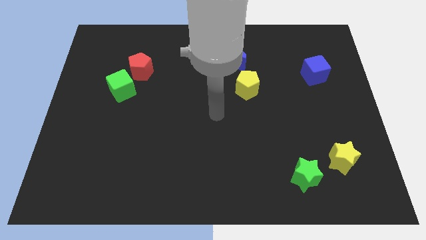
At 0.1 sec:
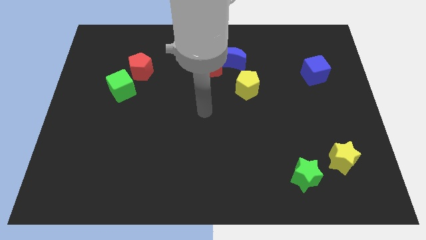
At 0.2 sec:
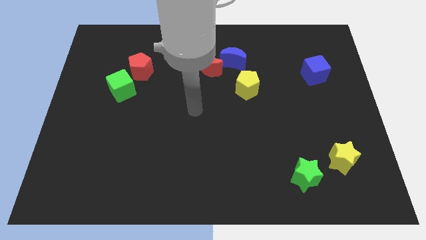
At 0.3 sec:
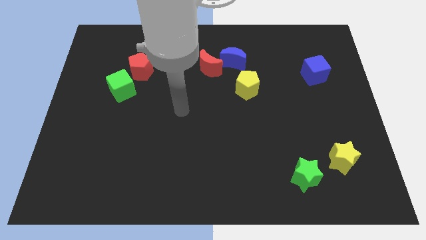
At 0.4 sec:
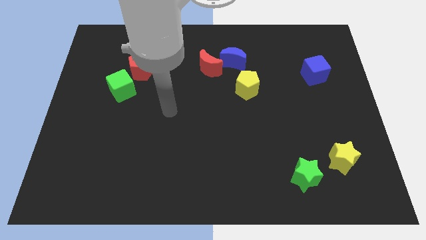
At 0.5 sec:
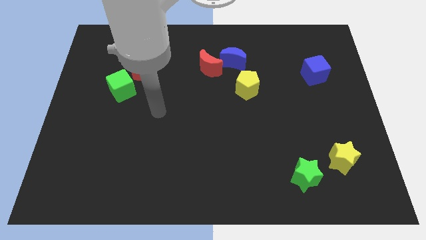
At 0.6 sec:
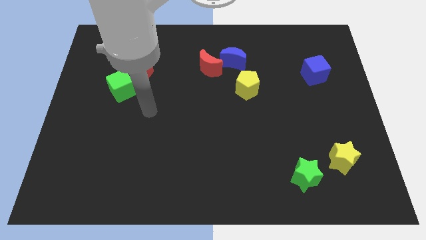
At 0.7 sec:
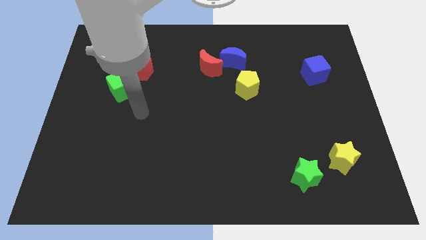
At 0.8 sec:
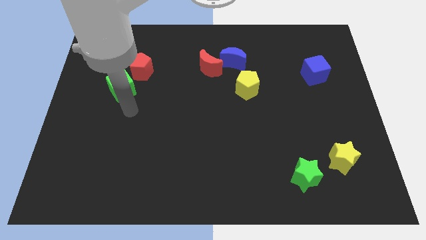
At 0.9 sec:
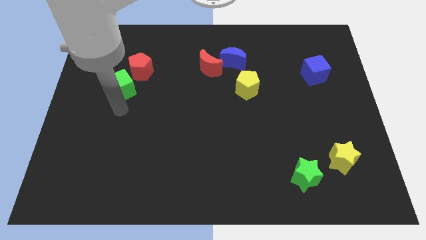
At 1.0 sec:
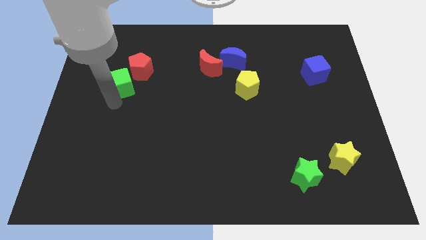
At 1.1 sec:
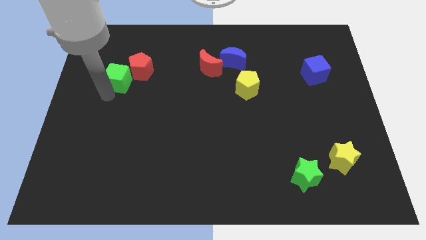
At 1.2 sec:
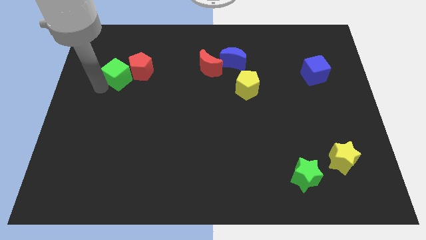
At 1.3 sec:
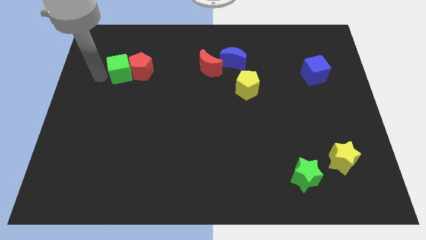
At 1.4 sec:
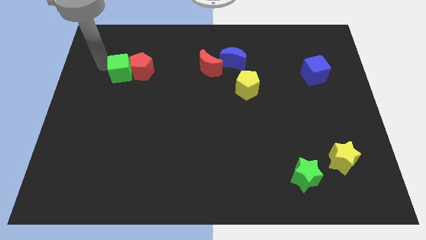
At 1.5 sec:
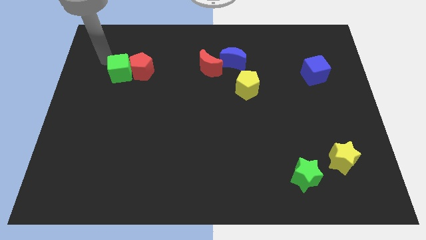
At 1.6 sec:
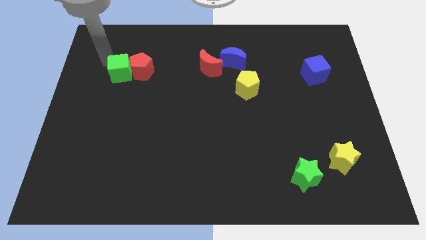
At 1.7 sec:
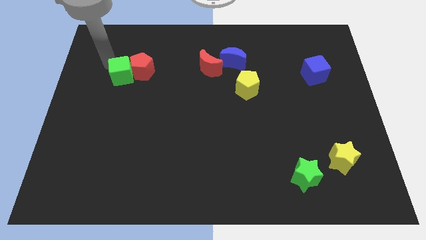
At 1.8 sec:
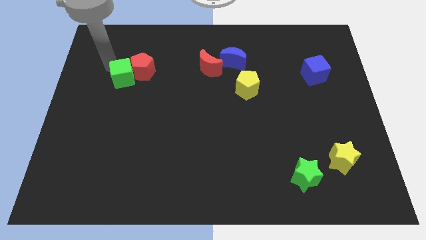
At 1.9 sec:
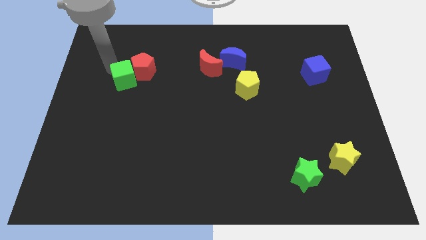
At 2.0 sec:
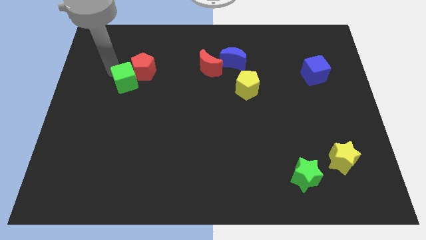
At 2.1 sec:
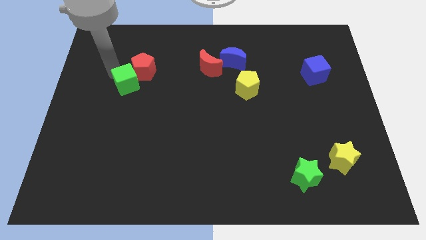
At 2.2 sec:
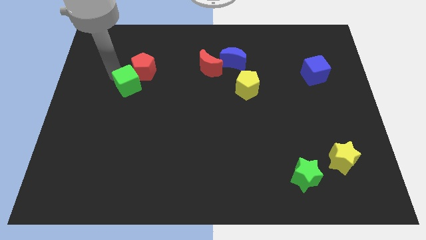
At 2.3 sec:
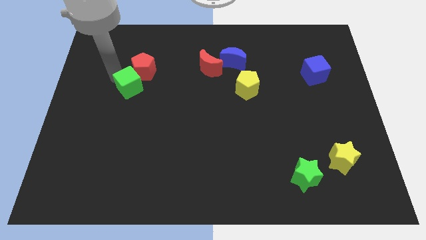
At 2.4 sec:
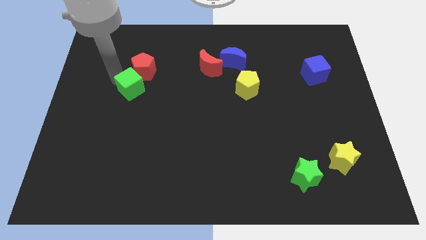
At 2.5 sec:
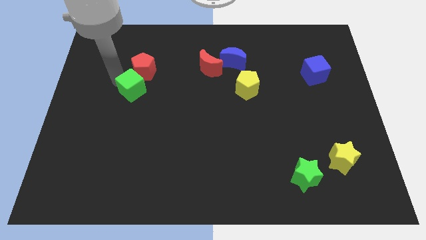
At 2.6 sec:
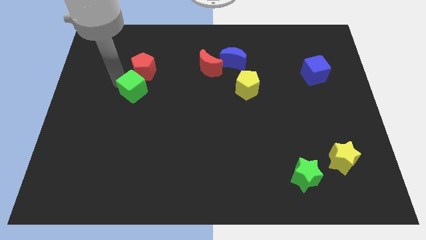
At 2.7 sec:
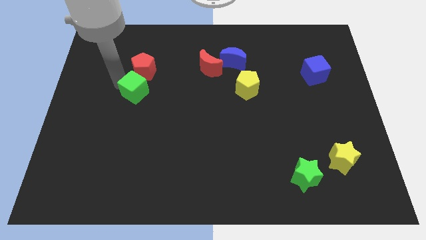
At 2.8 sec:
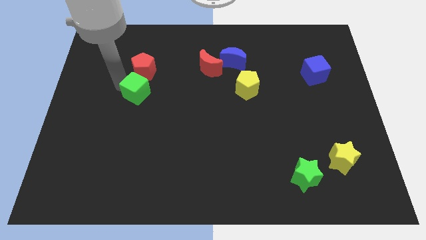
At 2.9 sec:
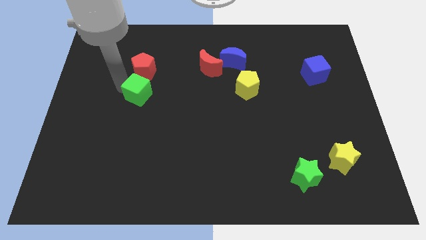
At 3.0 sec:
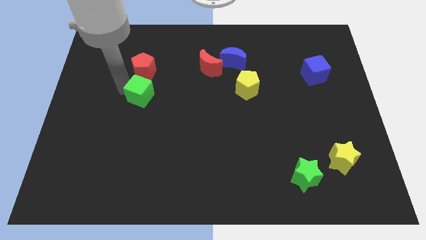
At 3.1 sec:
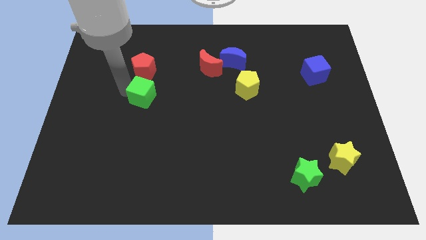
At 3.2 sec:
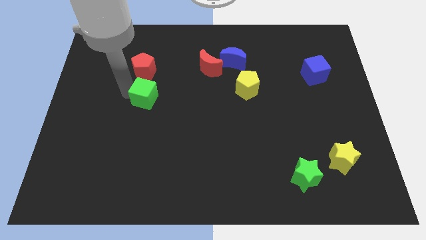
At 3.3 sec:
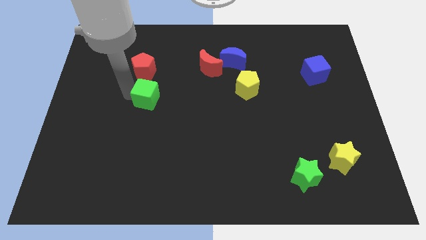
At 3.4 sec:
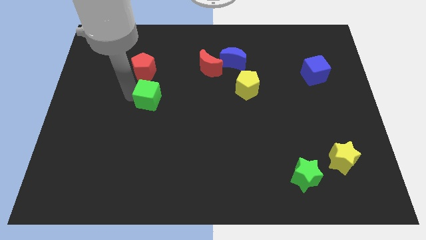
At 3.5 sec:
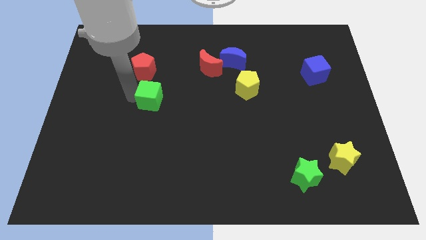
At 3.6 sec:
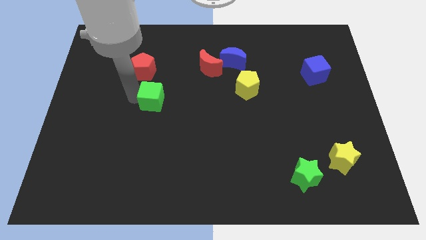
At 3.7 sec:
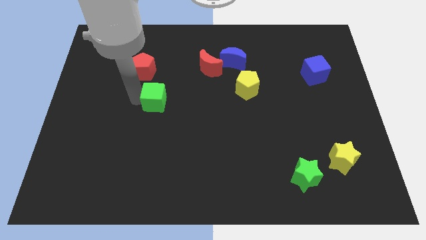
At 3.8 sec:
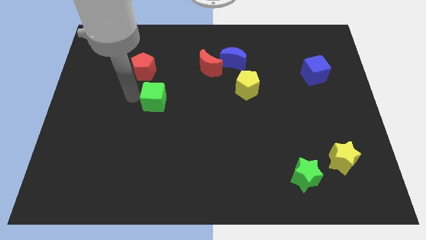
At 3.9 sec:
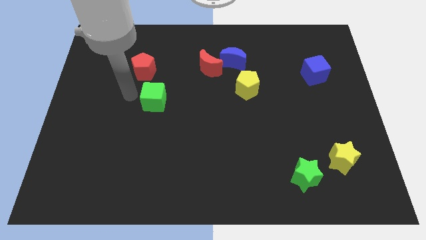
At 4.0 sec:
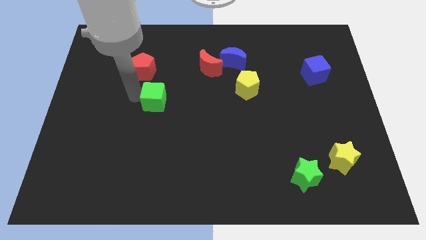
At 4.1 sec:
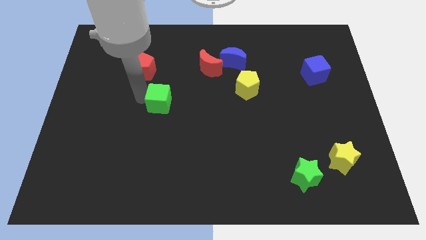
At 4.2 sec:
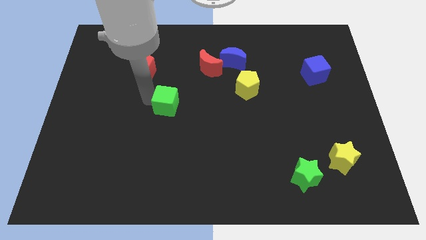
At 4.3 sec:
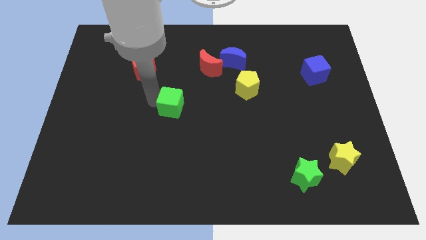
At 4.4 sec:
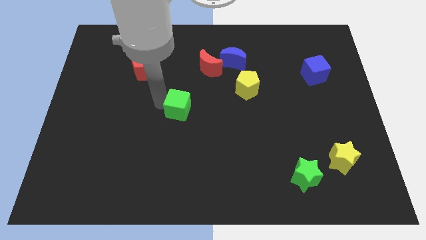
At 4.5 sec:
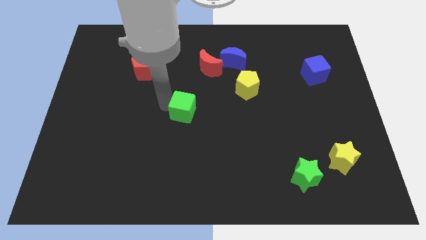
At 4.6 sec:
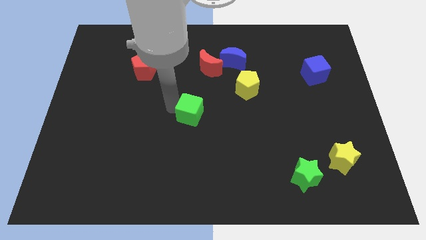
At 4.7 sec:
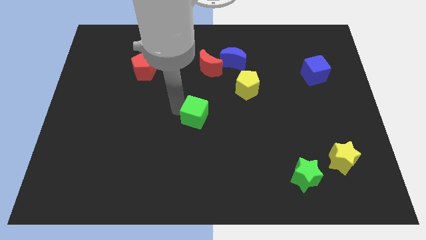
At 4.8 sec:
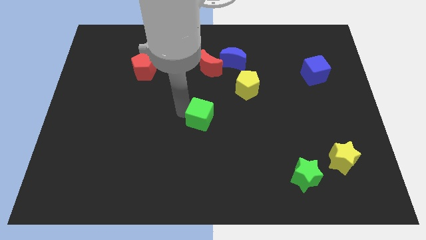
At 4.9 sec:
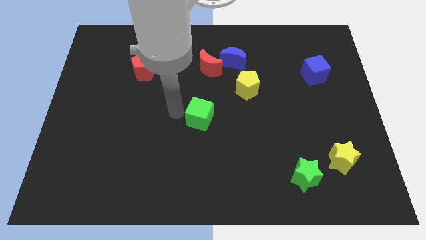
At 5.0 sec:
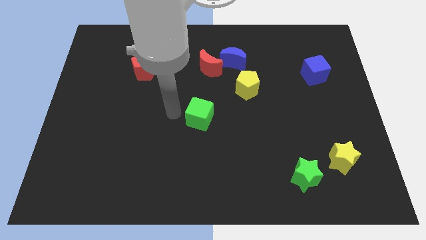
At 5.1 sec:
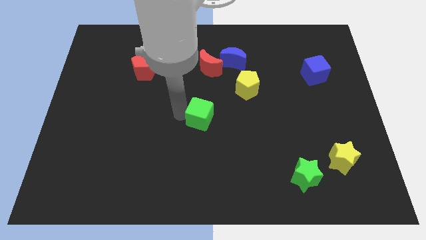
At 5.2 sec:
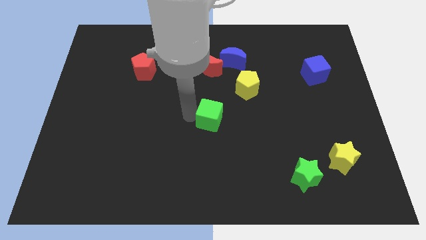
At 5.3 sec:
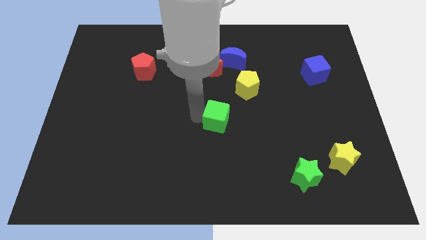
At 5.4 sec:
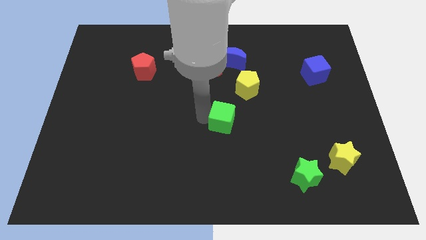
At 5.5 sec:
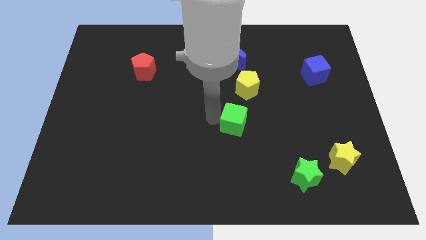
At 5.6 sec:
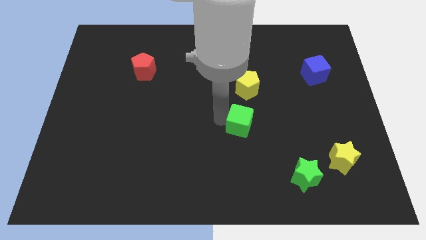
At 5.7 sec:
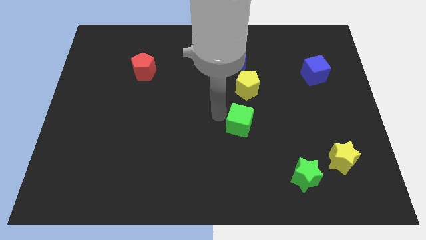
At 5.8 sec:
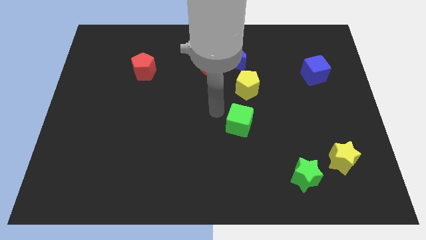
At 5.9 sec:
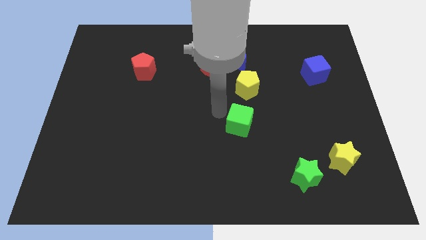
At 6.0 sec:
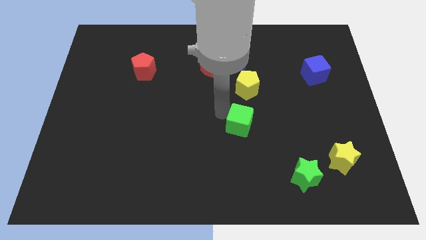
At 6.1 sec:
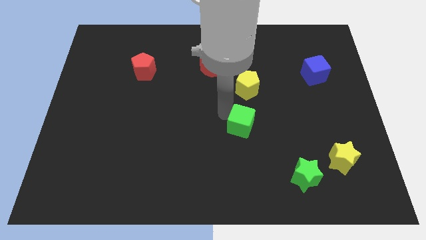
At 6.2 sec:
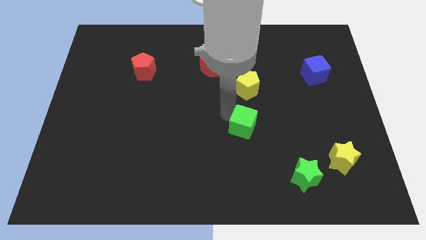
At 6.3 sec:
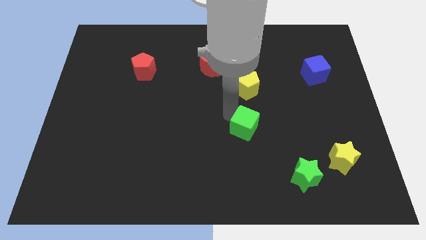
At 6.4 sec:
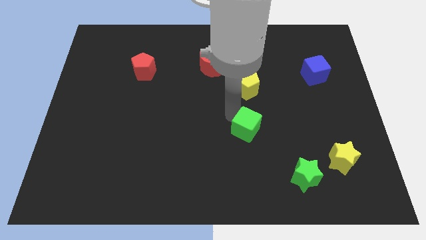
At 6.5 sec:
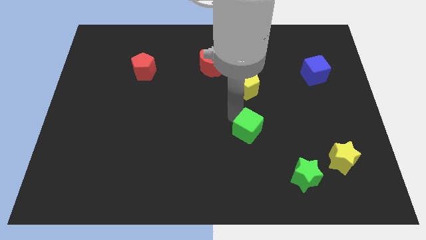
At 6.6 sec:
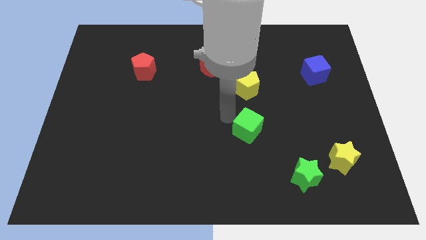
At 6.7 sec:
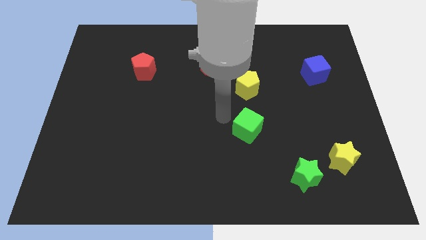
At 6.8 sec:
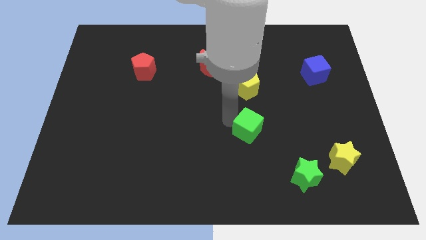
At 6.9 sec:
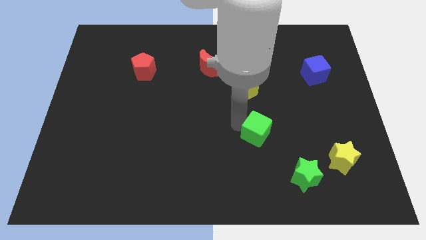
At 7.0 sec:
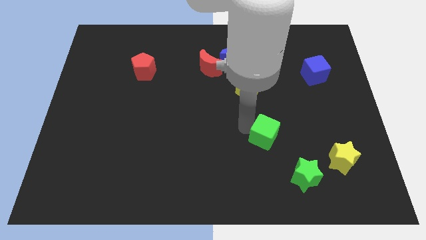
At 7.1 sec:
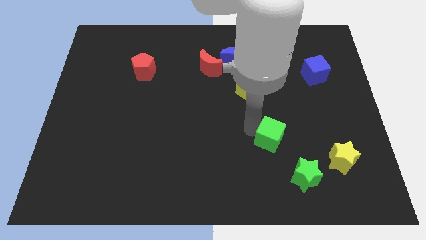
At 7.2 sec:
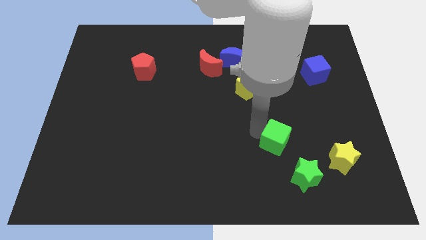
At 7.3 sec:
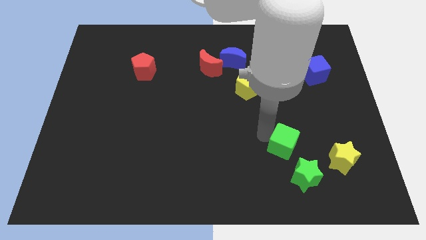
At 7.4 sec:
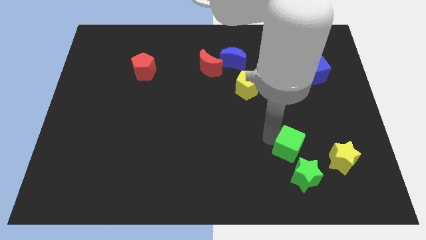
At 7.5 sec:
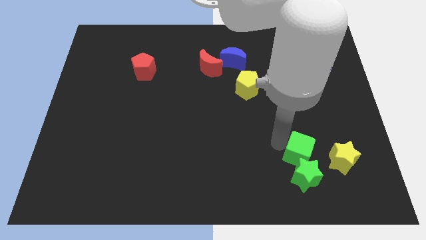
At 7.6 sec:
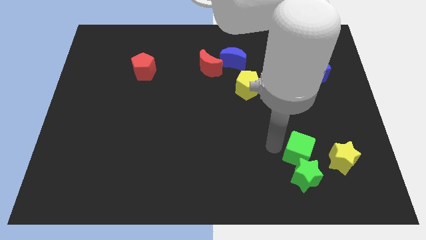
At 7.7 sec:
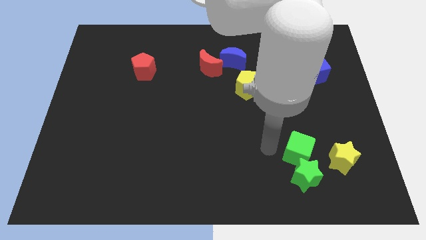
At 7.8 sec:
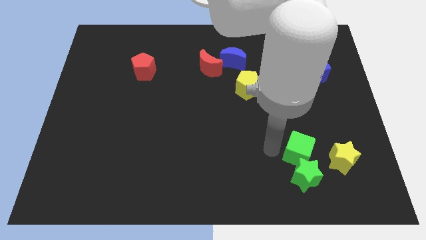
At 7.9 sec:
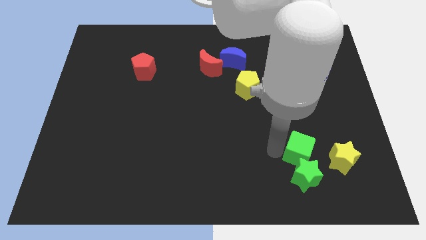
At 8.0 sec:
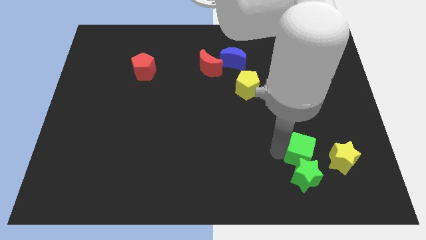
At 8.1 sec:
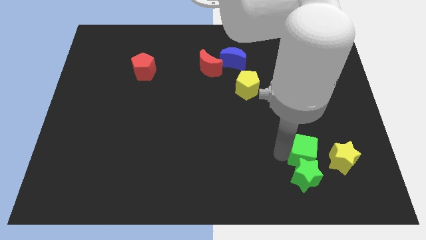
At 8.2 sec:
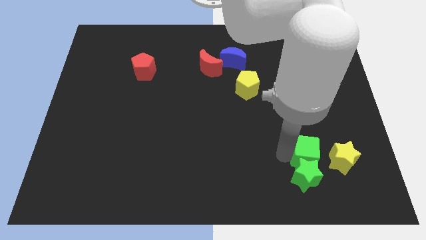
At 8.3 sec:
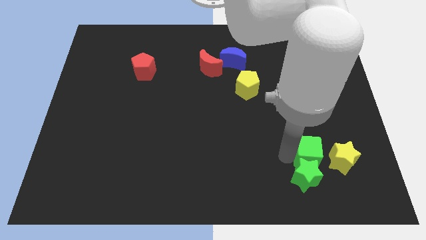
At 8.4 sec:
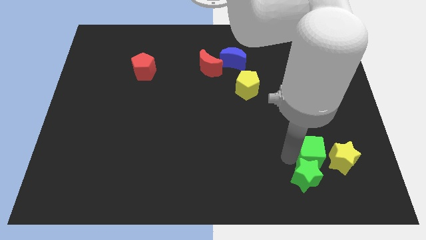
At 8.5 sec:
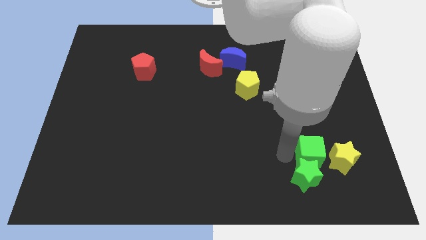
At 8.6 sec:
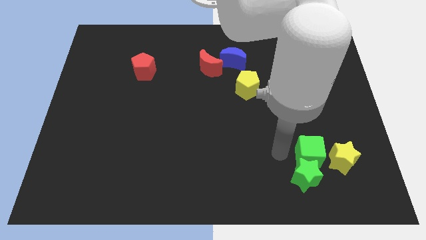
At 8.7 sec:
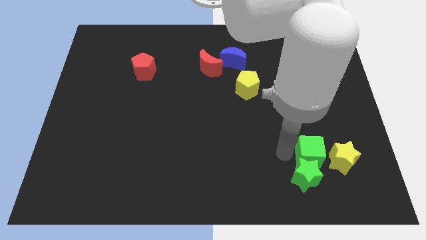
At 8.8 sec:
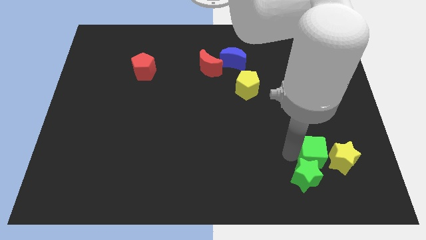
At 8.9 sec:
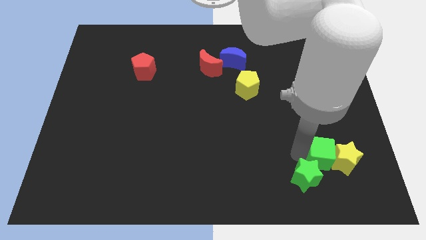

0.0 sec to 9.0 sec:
slide the green cube towards the yellow star
